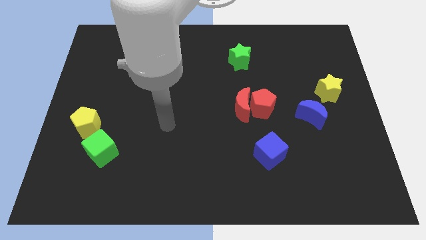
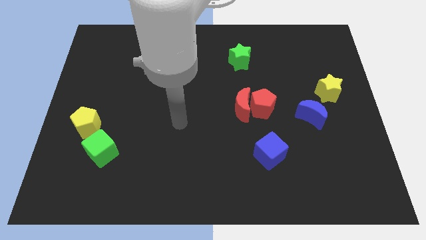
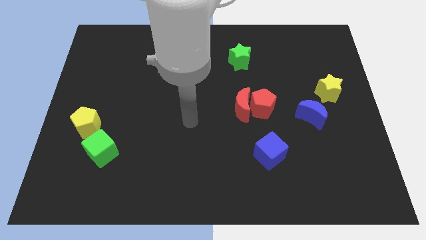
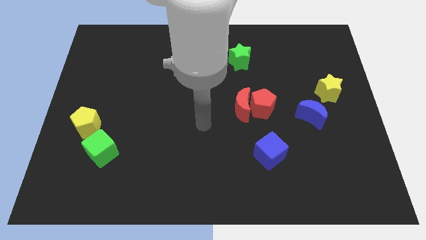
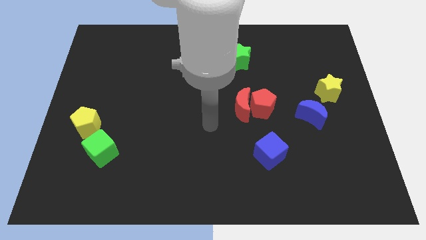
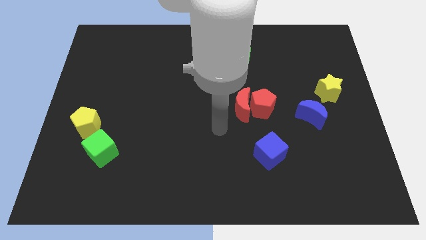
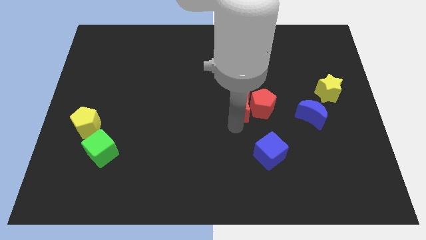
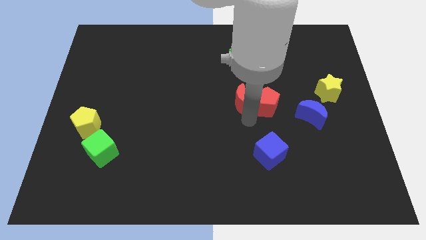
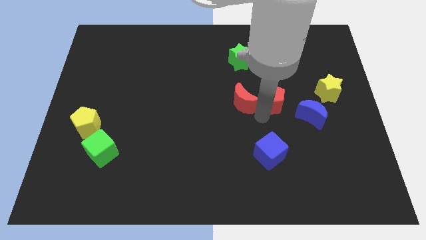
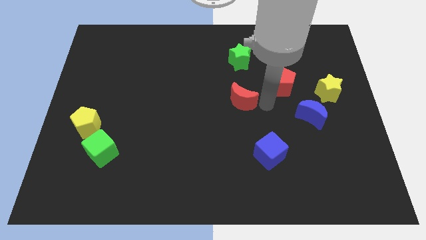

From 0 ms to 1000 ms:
separate the red moon from the red pentagon

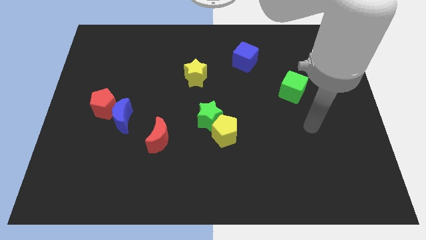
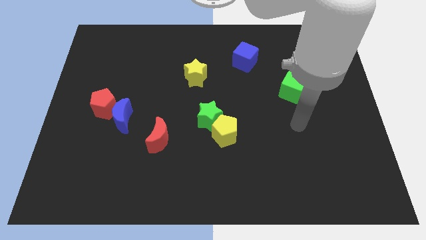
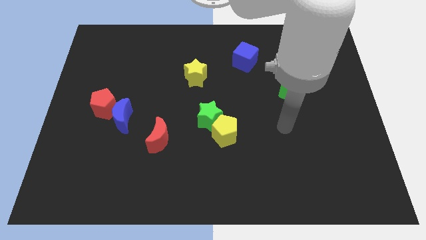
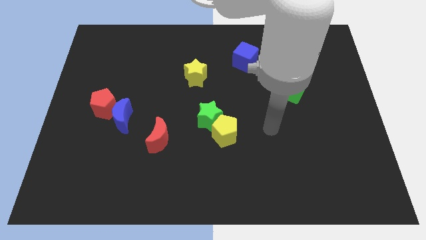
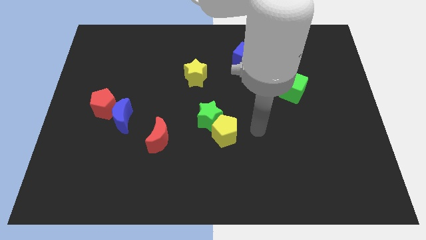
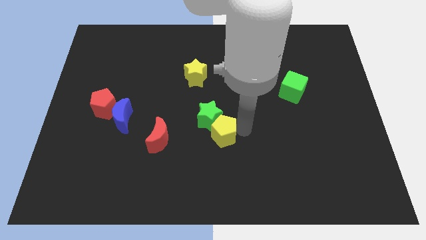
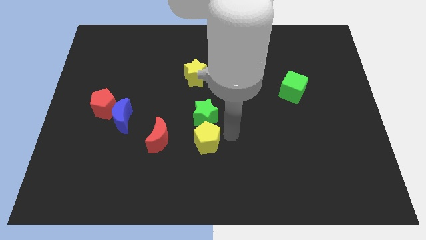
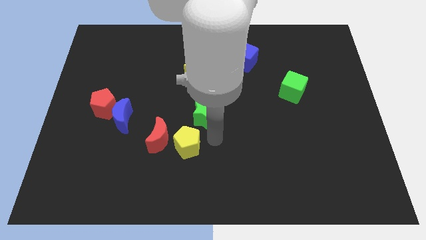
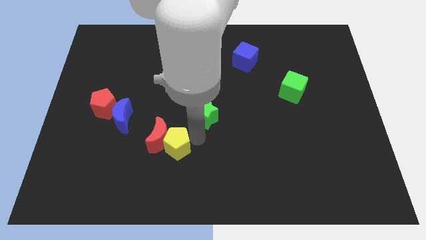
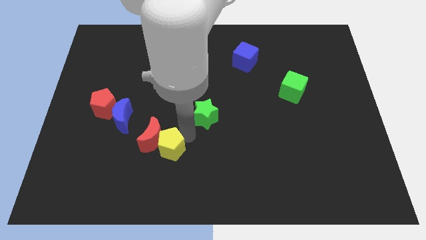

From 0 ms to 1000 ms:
move the green star away from the yellow pentagon

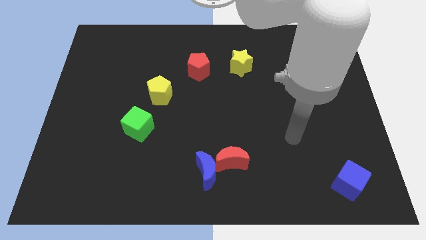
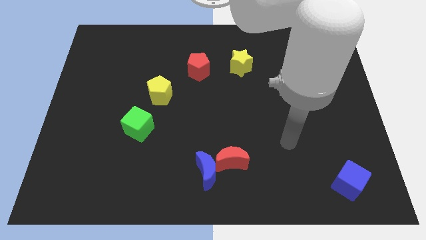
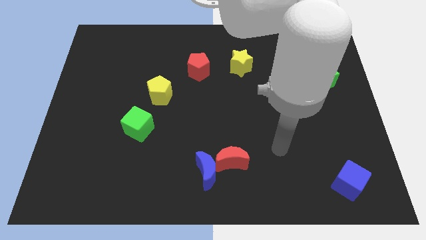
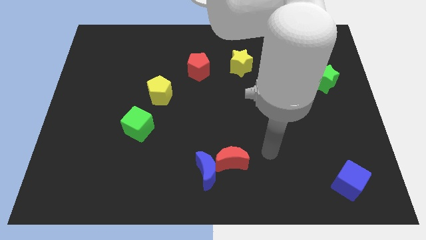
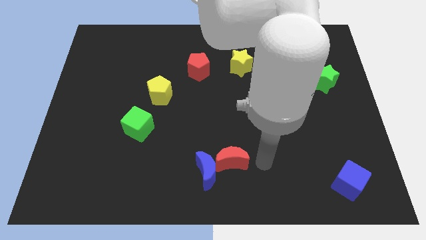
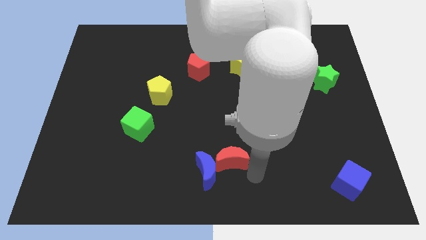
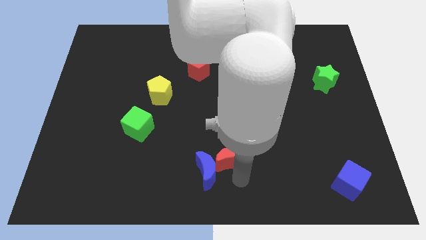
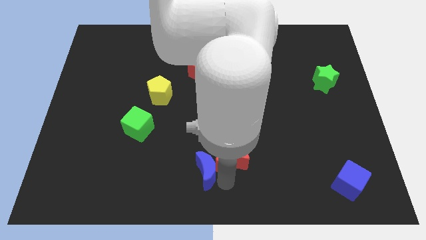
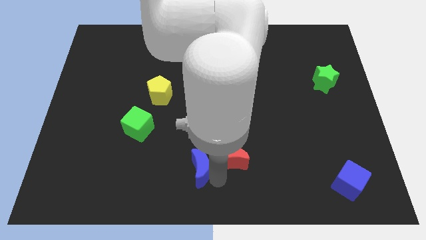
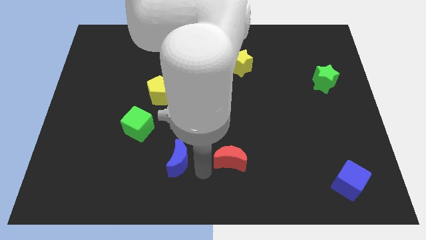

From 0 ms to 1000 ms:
move the red moon away from the blue moon

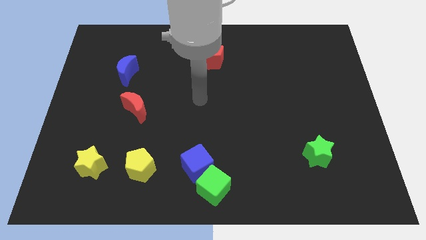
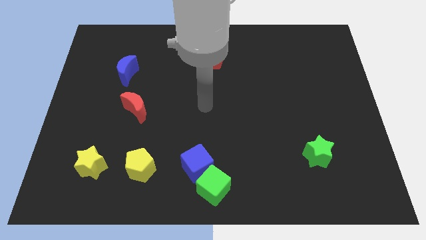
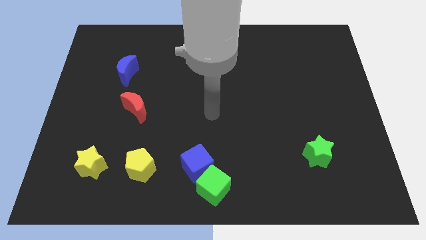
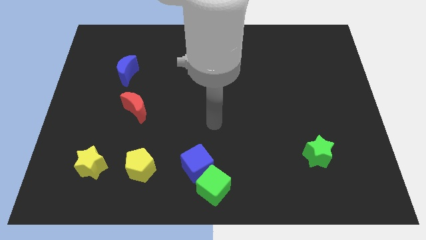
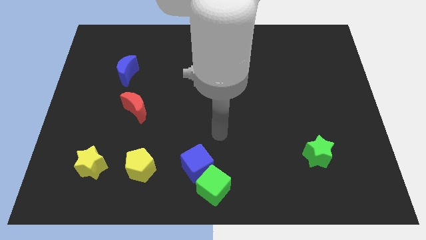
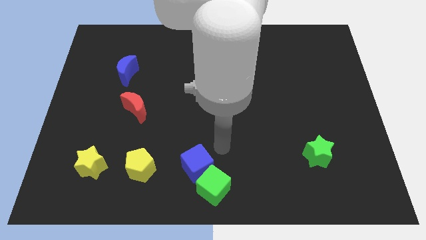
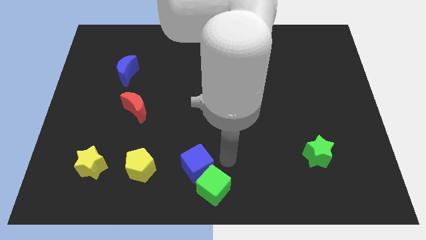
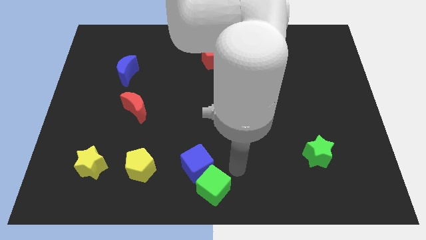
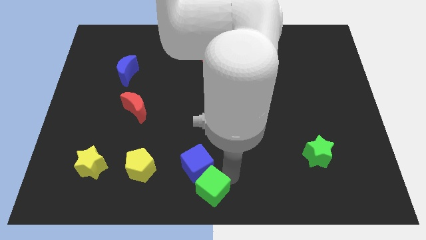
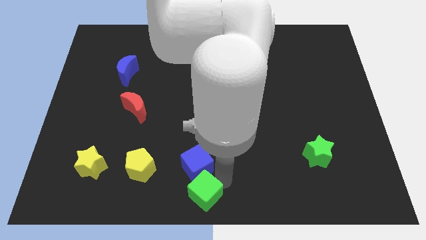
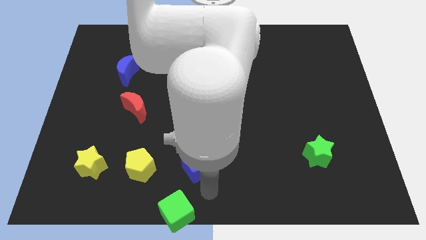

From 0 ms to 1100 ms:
pull the blue cube apart from the green cube

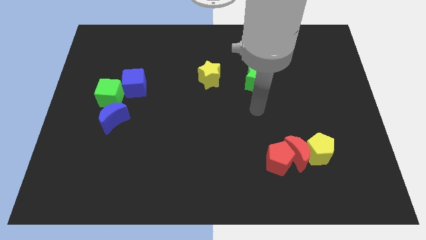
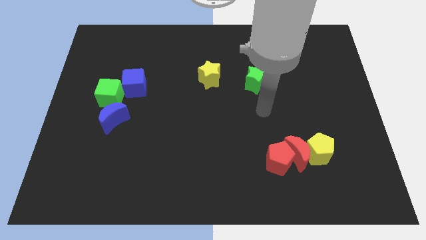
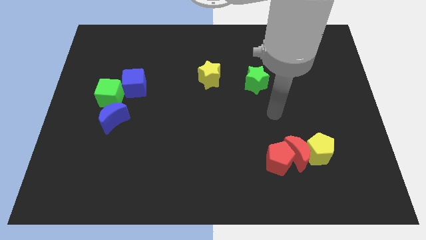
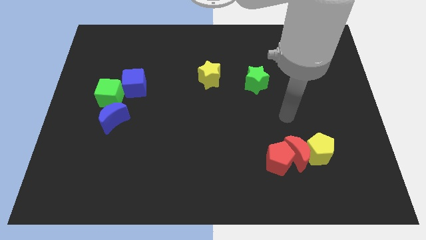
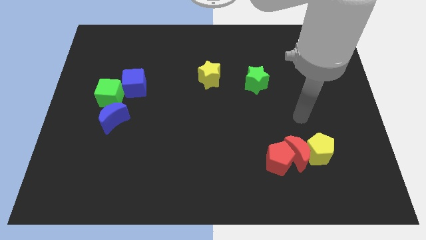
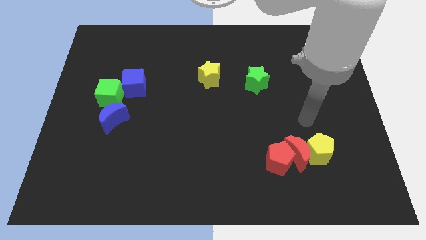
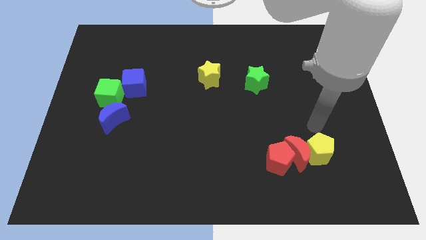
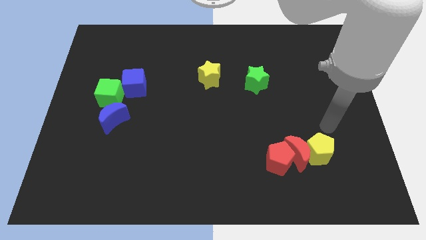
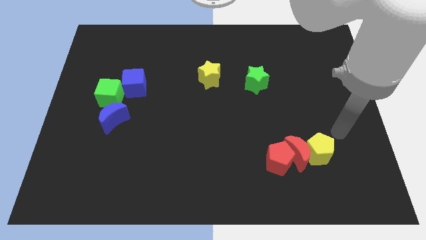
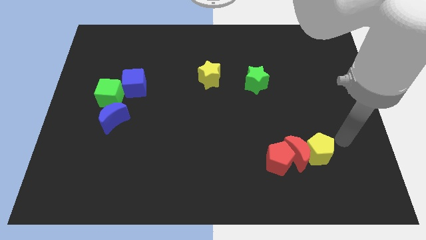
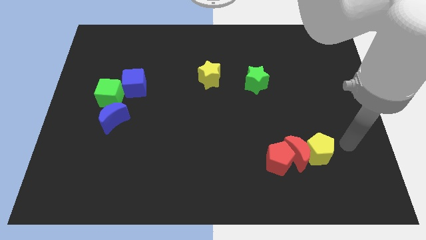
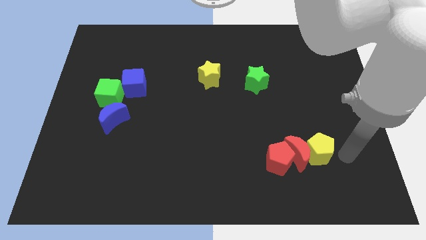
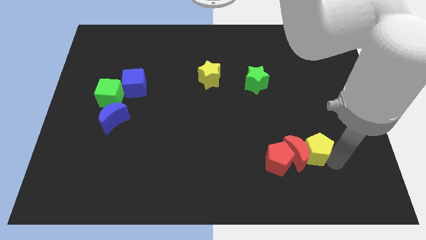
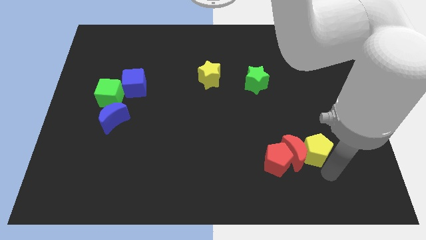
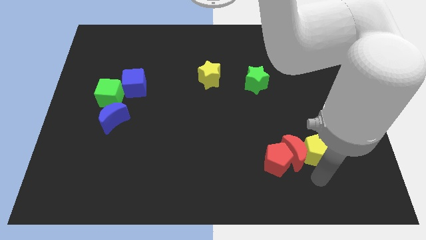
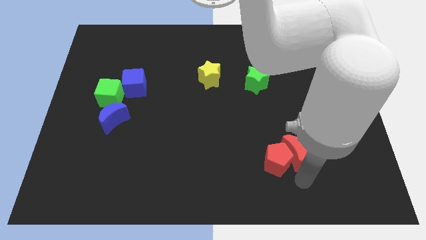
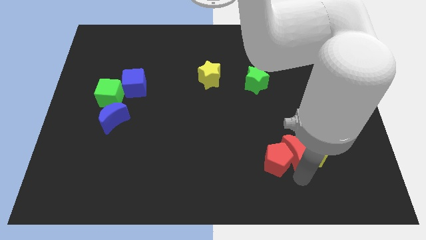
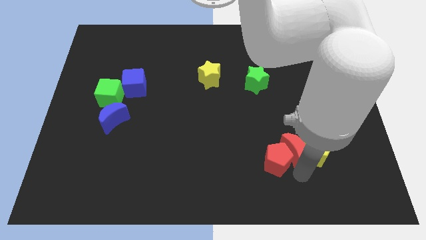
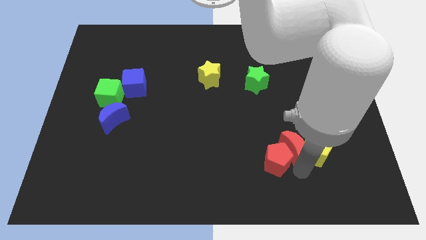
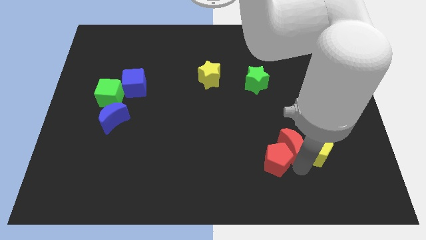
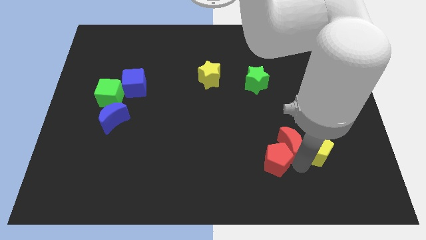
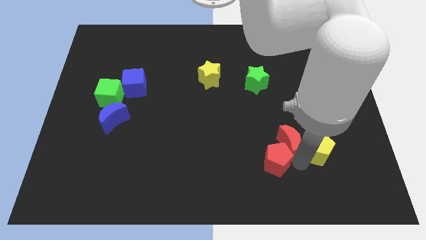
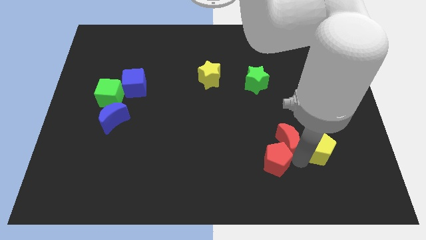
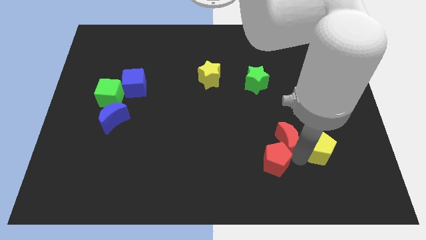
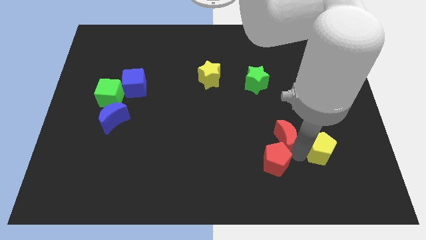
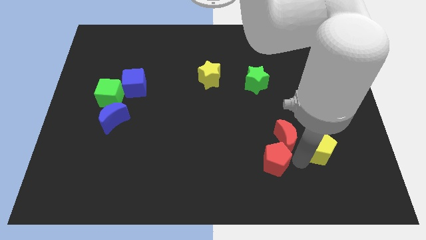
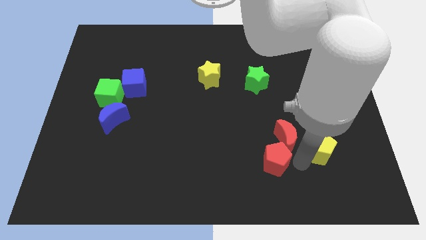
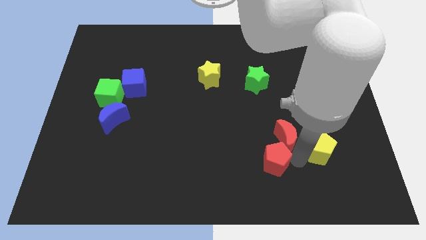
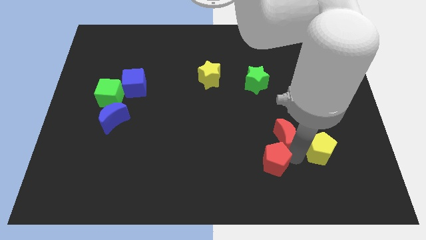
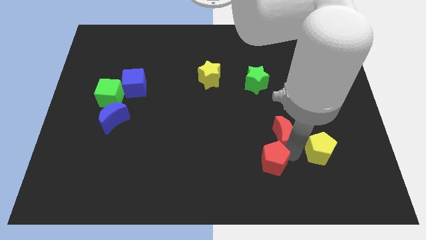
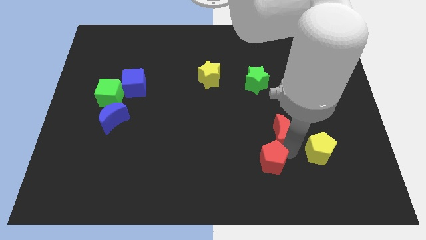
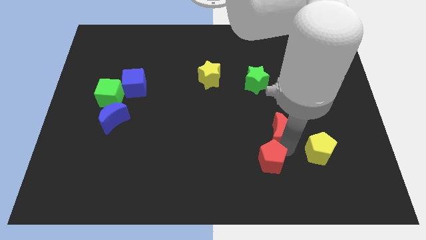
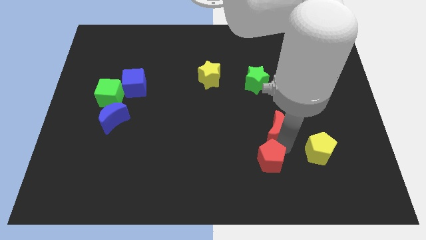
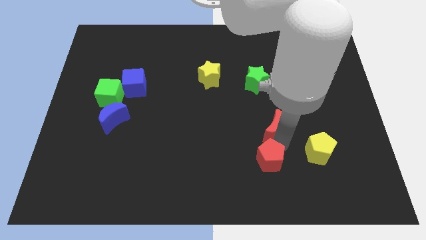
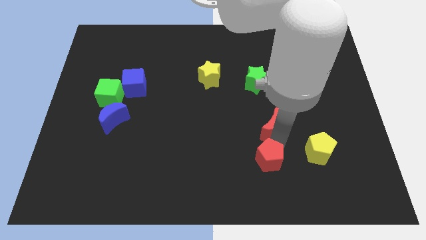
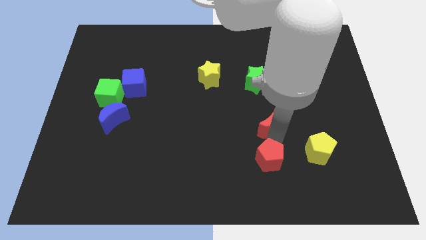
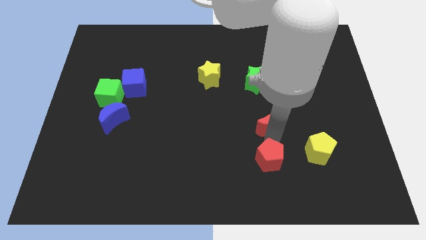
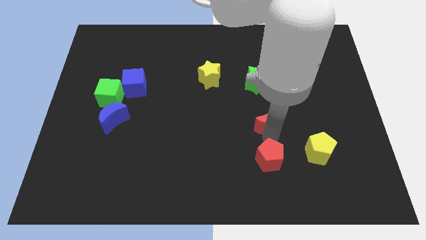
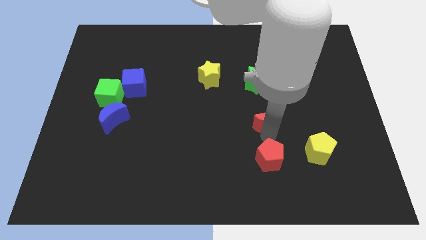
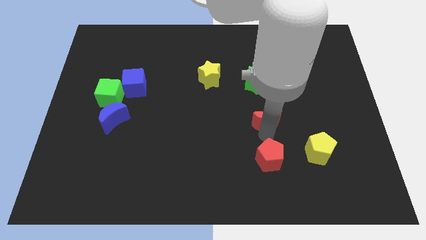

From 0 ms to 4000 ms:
separate the red moon from the yellow pentagon and red pentagon

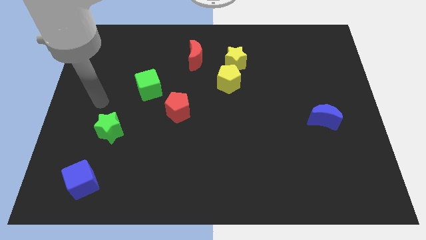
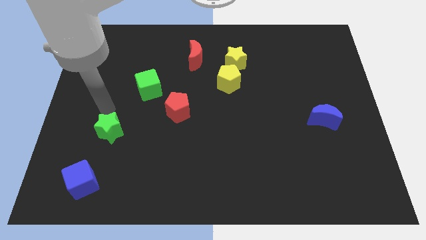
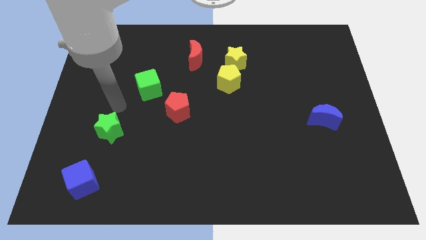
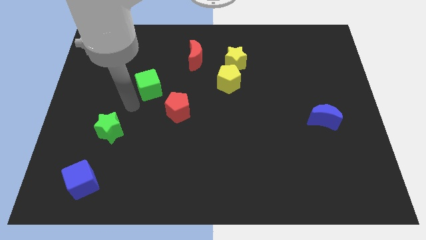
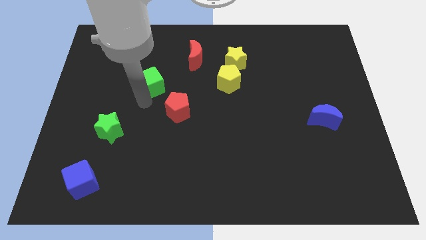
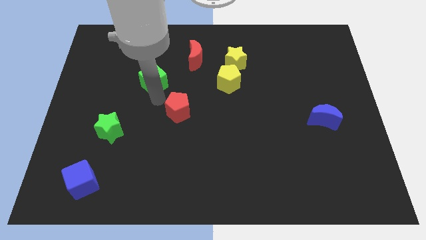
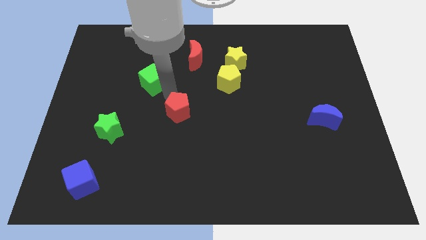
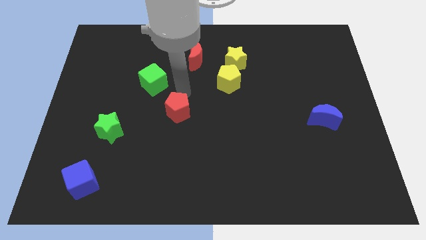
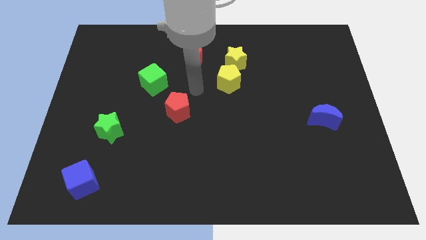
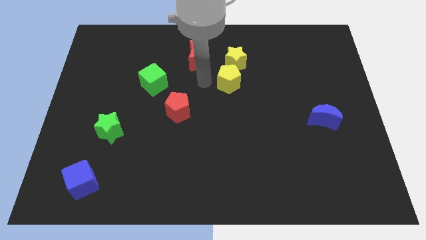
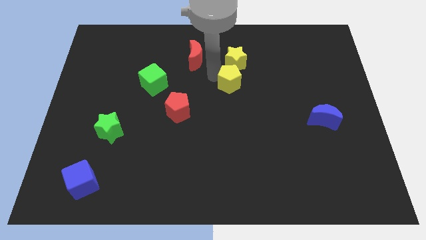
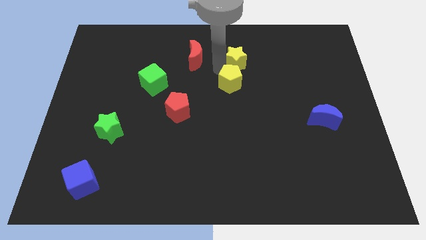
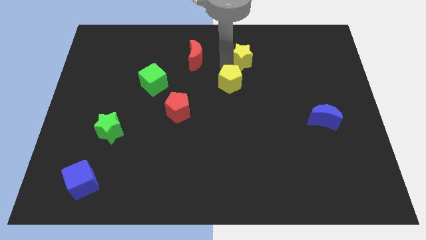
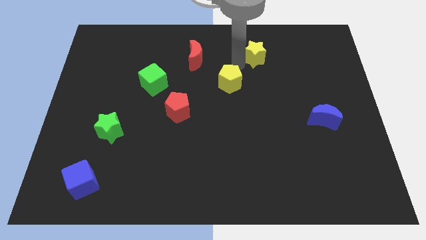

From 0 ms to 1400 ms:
pull the yellow pentagon apart from the yellow star
